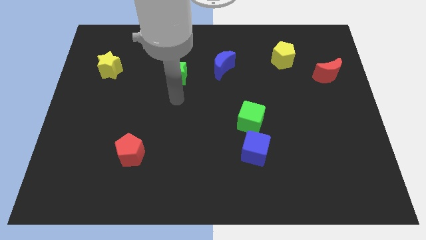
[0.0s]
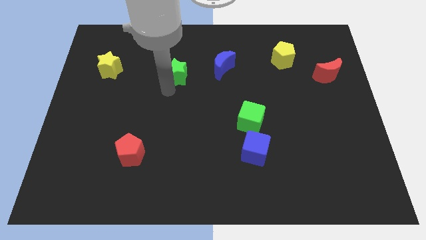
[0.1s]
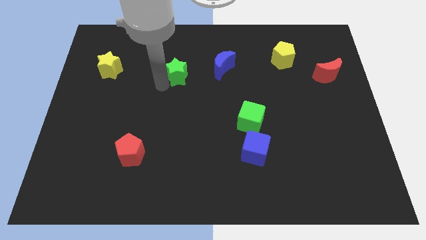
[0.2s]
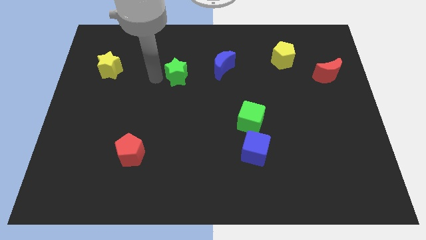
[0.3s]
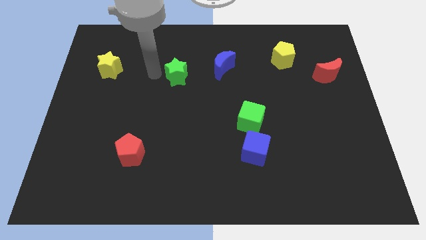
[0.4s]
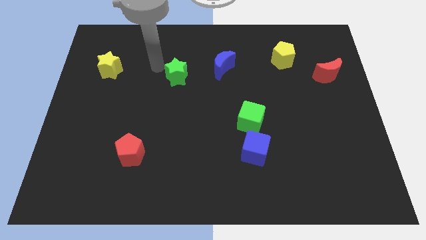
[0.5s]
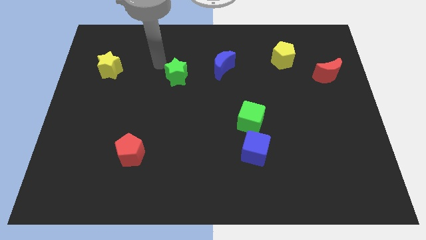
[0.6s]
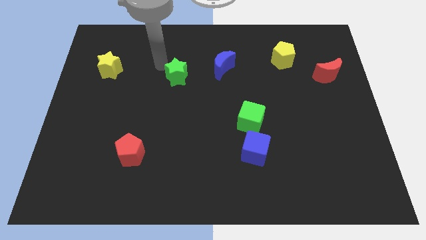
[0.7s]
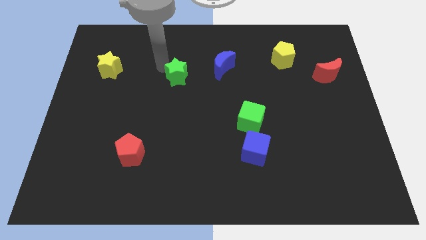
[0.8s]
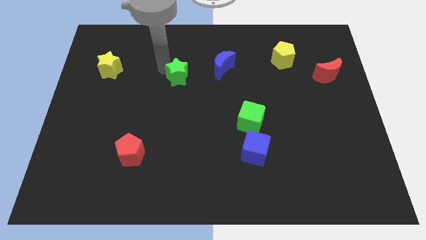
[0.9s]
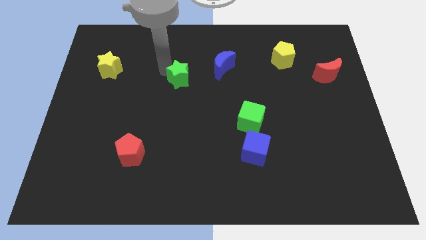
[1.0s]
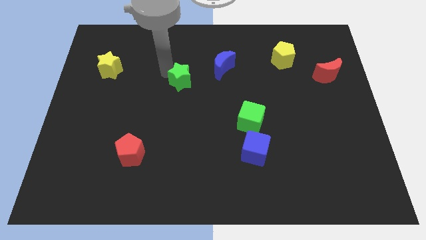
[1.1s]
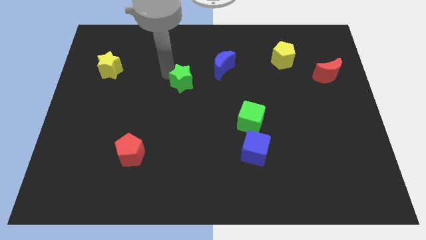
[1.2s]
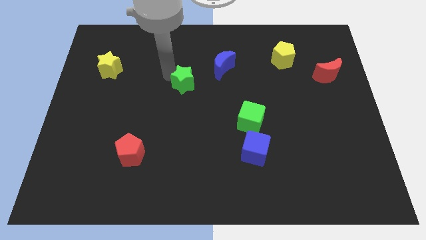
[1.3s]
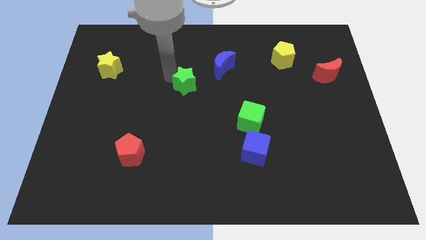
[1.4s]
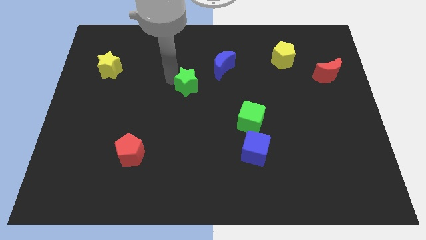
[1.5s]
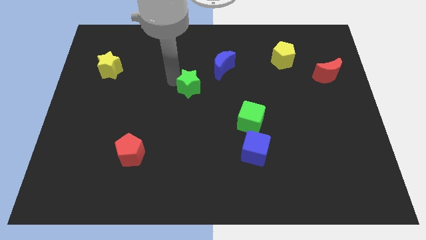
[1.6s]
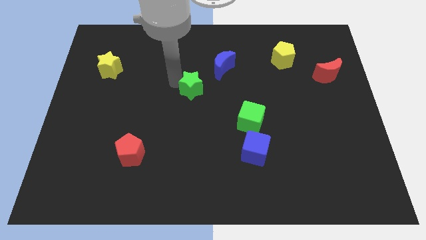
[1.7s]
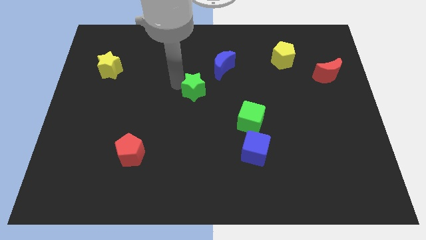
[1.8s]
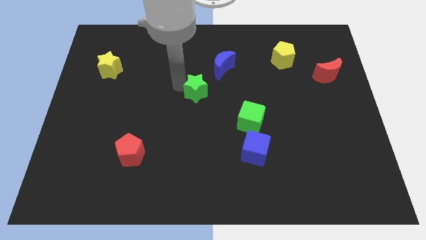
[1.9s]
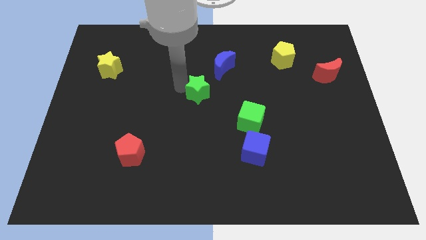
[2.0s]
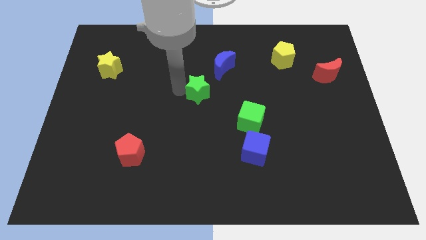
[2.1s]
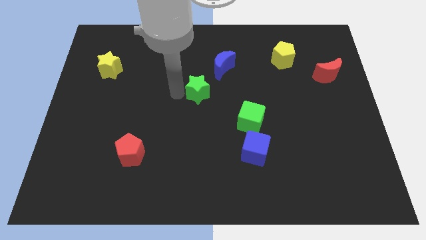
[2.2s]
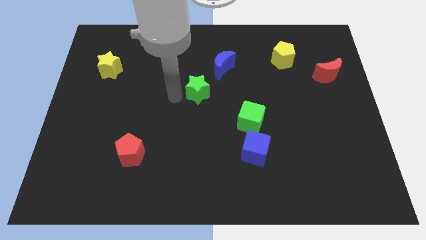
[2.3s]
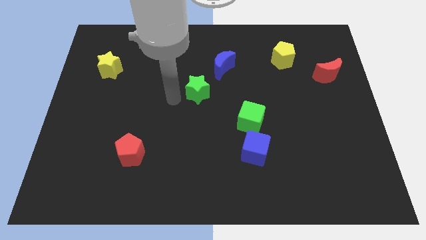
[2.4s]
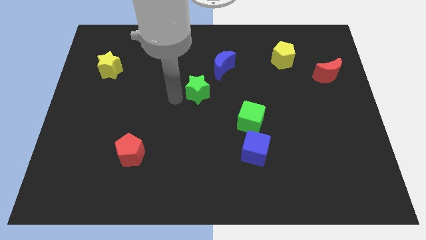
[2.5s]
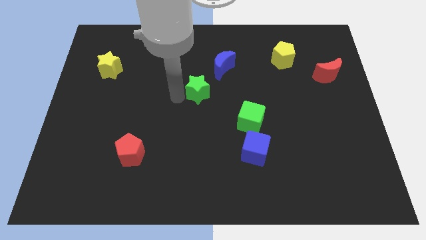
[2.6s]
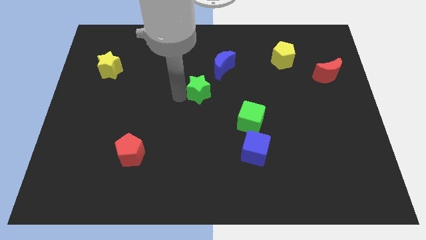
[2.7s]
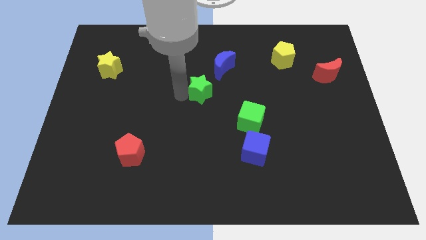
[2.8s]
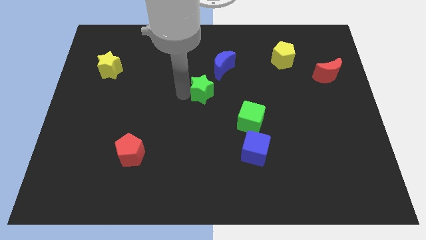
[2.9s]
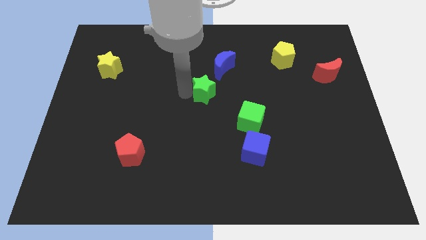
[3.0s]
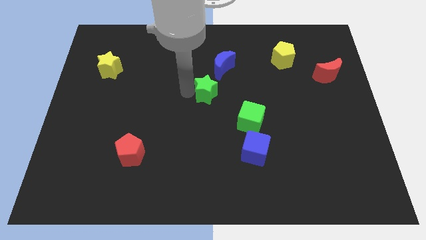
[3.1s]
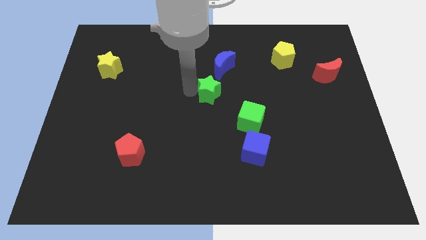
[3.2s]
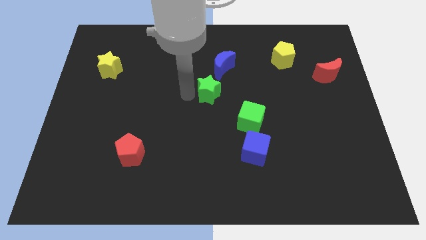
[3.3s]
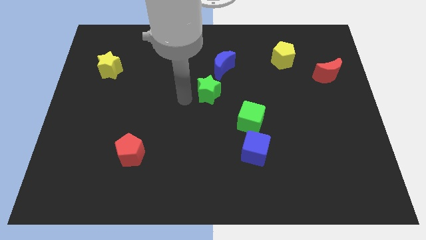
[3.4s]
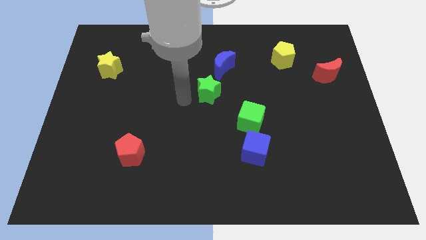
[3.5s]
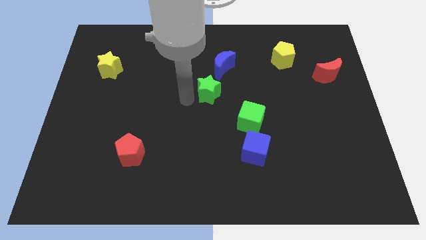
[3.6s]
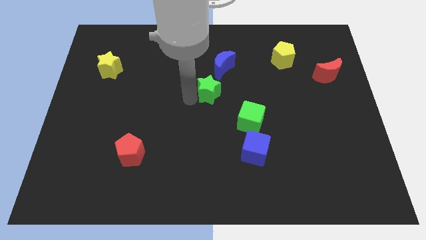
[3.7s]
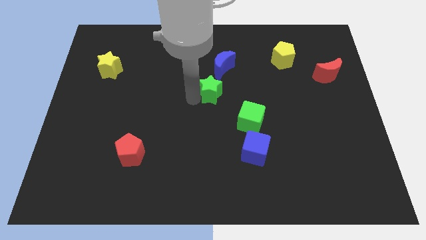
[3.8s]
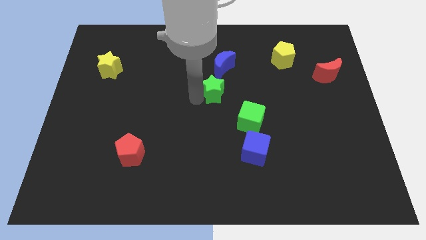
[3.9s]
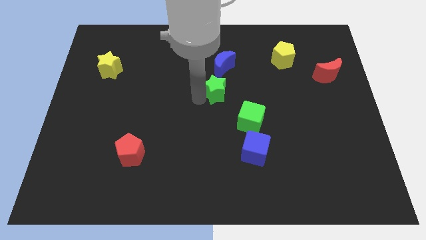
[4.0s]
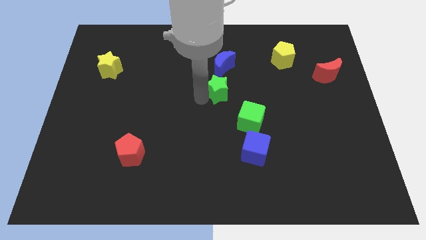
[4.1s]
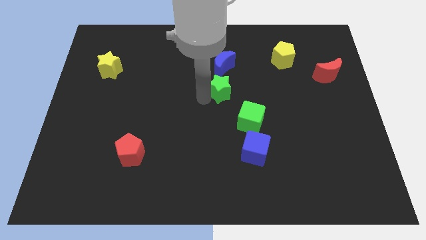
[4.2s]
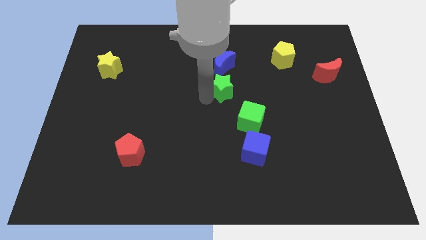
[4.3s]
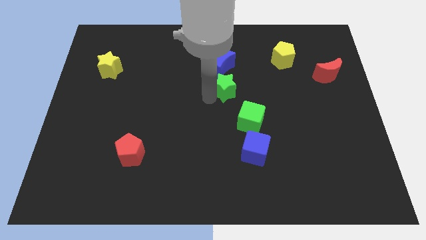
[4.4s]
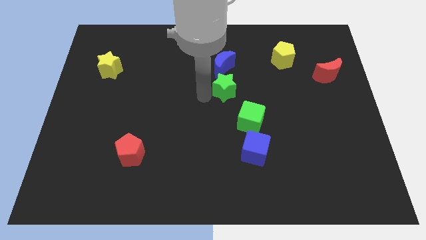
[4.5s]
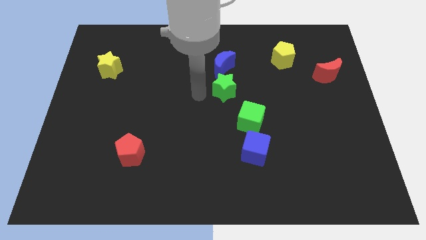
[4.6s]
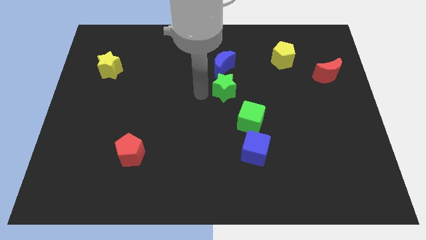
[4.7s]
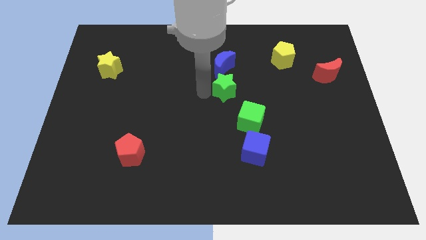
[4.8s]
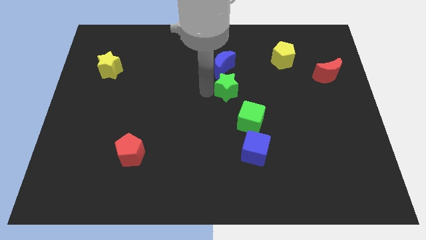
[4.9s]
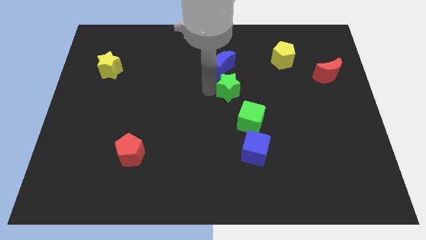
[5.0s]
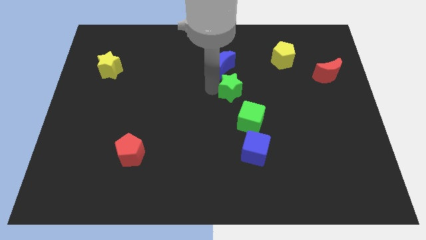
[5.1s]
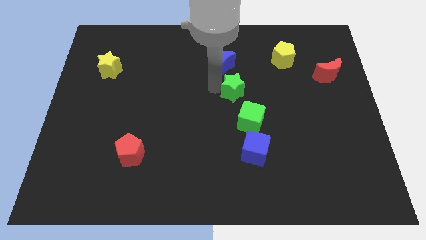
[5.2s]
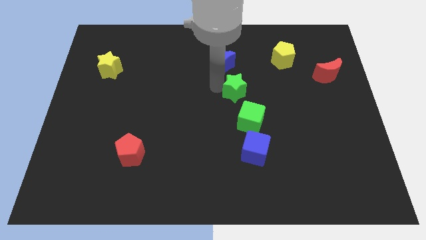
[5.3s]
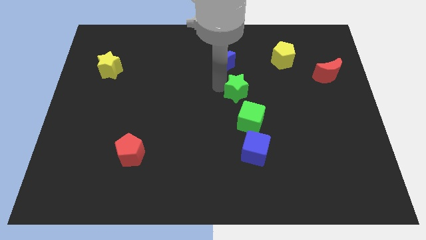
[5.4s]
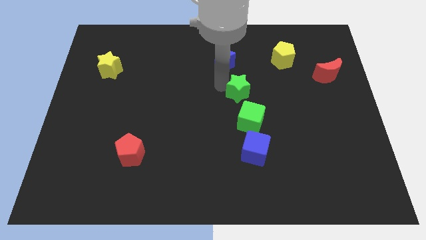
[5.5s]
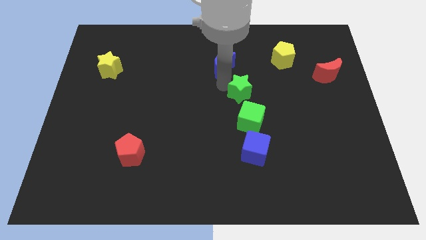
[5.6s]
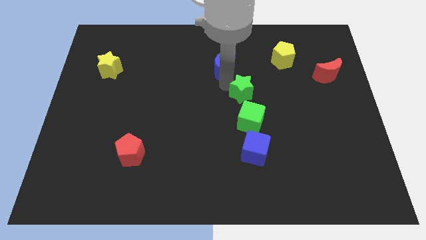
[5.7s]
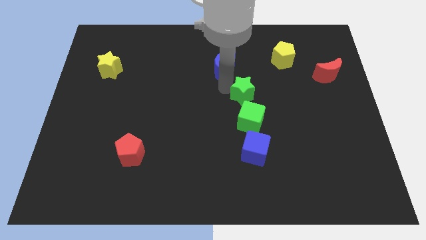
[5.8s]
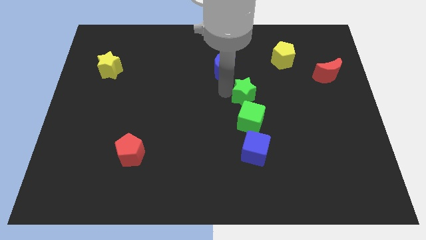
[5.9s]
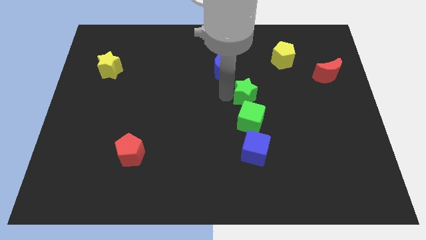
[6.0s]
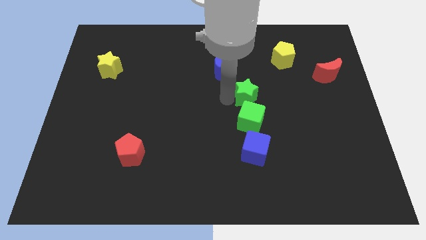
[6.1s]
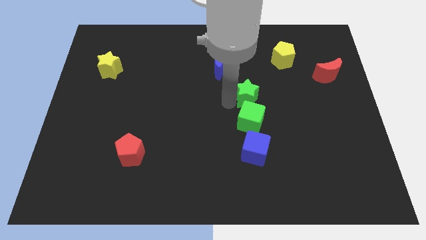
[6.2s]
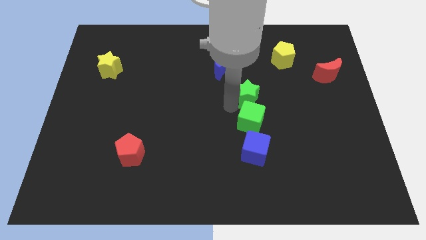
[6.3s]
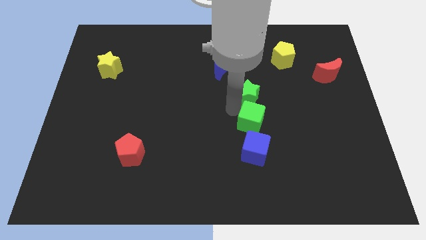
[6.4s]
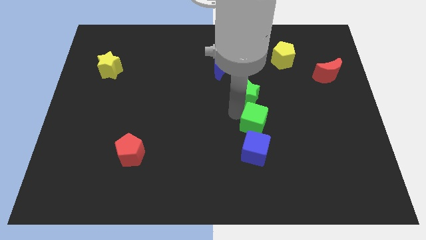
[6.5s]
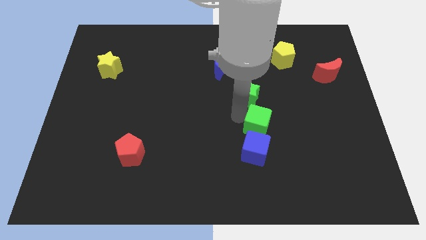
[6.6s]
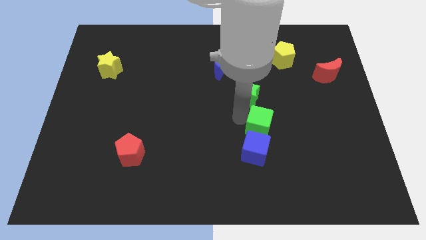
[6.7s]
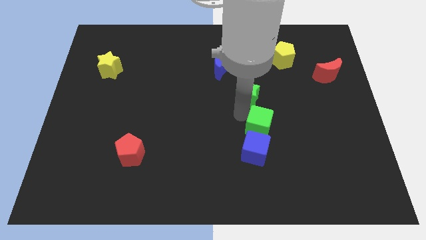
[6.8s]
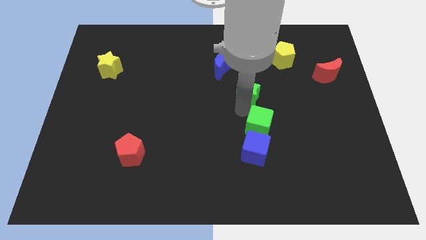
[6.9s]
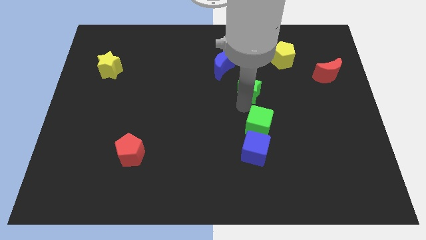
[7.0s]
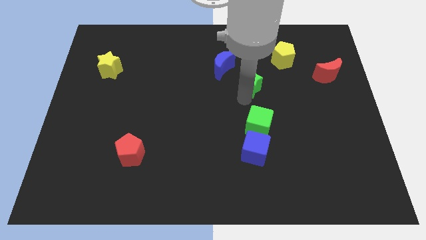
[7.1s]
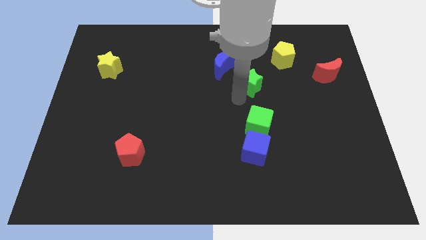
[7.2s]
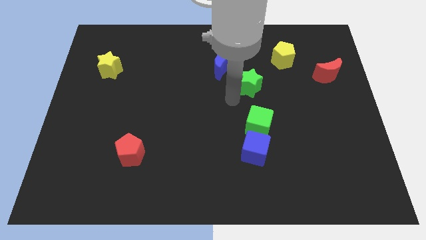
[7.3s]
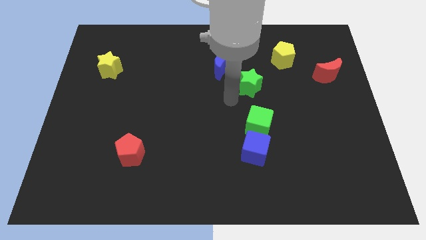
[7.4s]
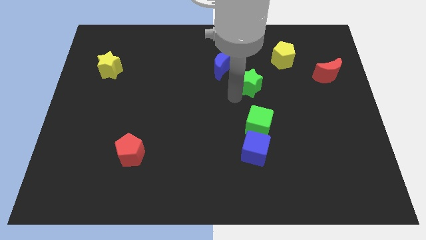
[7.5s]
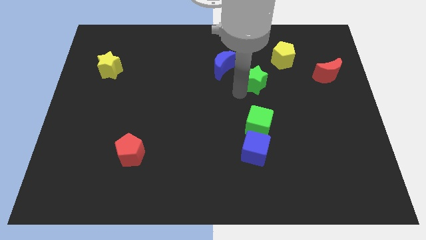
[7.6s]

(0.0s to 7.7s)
push the green star to the bottom left of the yellow pentagon

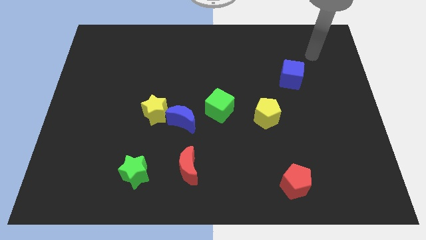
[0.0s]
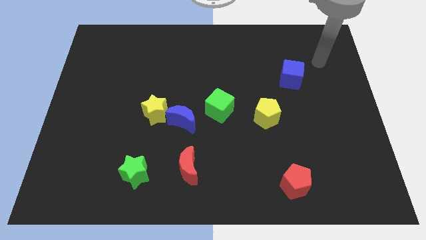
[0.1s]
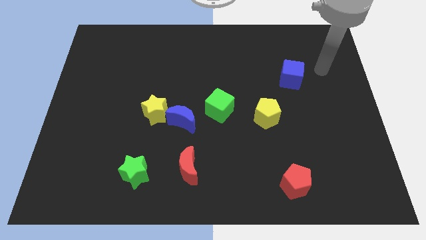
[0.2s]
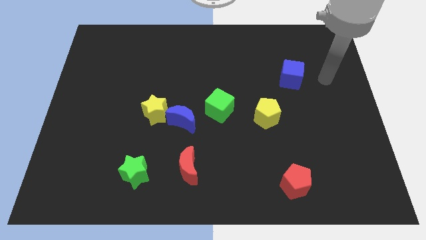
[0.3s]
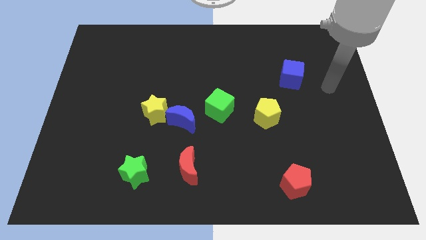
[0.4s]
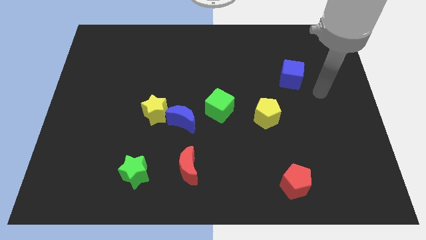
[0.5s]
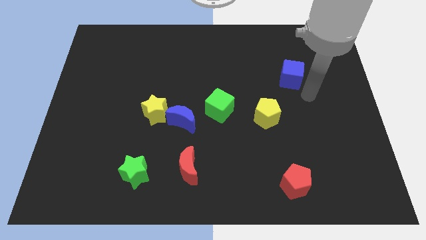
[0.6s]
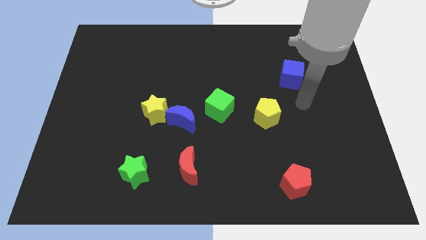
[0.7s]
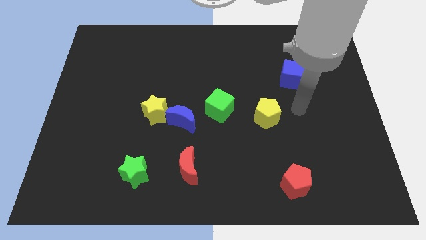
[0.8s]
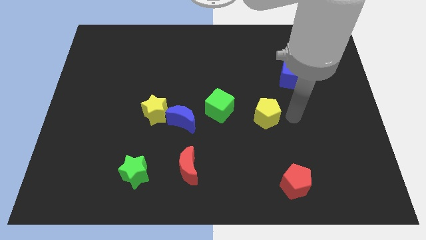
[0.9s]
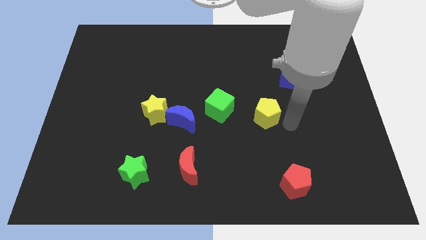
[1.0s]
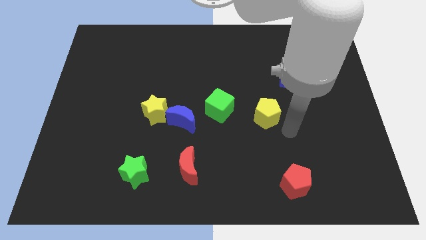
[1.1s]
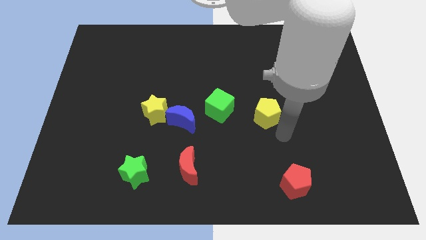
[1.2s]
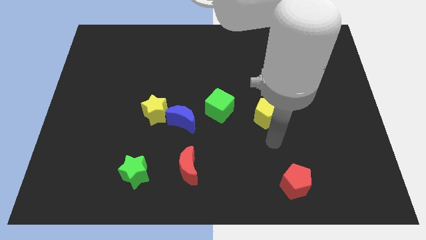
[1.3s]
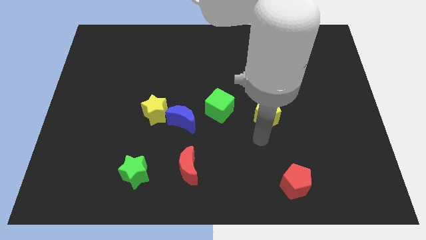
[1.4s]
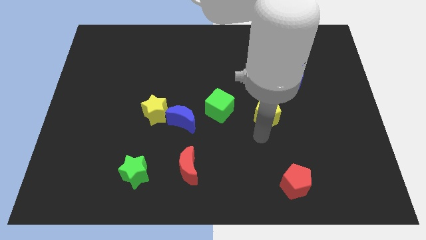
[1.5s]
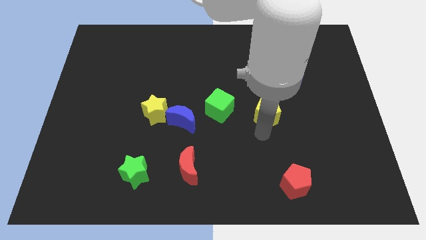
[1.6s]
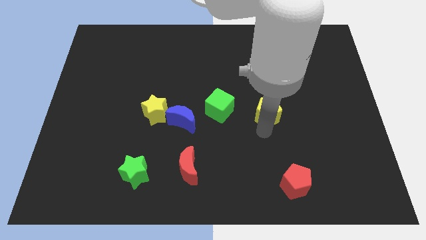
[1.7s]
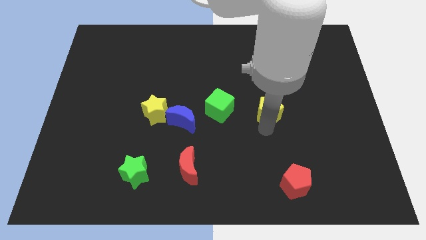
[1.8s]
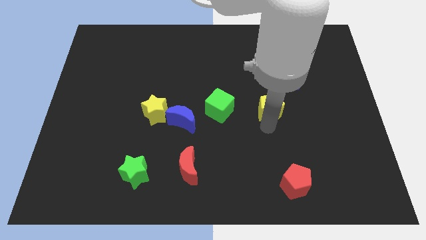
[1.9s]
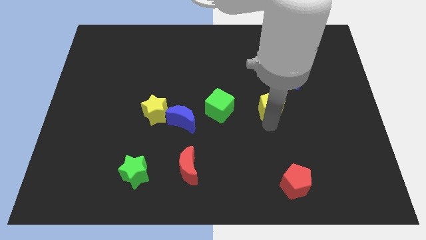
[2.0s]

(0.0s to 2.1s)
push the yellow pentagon diagonally down and to the left of the blue cube
